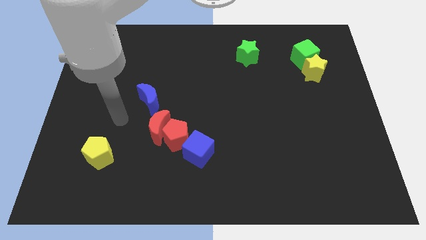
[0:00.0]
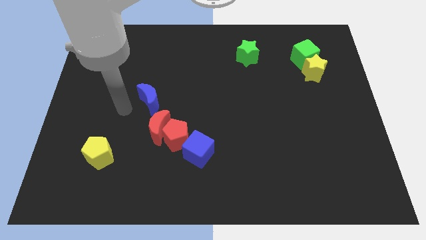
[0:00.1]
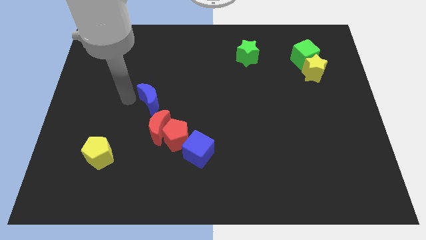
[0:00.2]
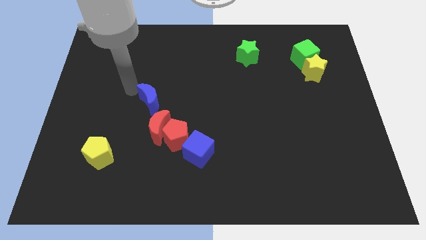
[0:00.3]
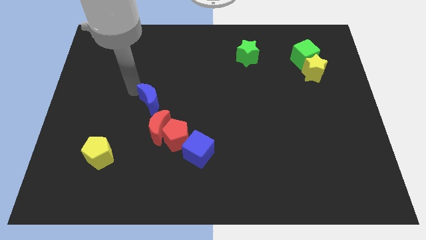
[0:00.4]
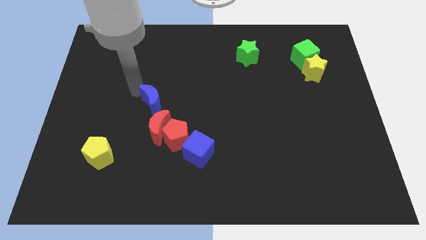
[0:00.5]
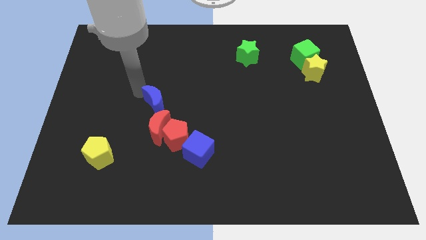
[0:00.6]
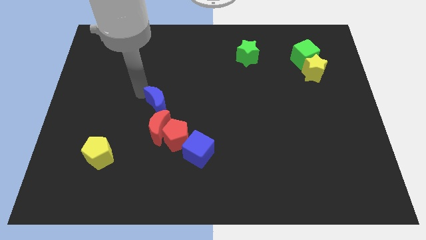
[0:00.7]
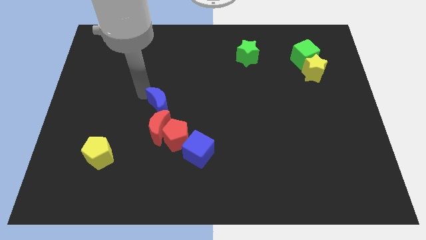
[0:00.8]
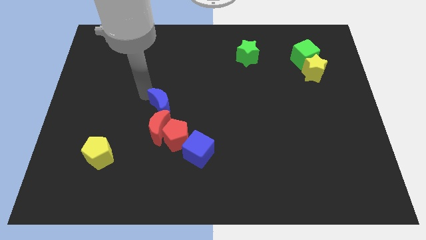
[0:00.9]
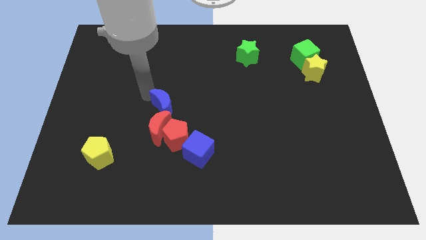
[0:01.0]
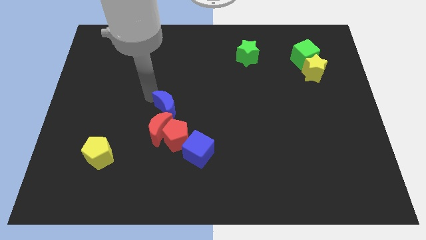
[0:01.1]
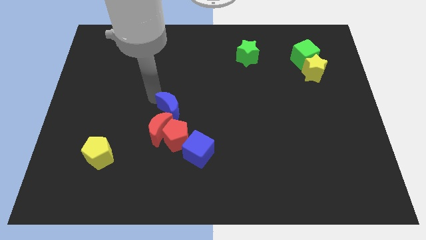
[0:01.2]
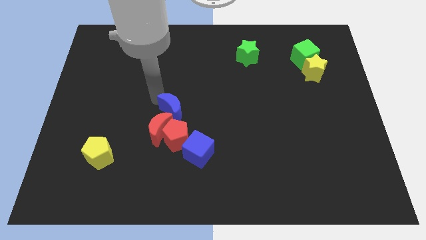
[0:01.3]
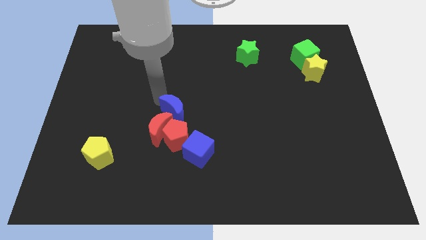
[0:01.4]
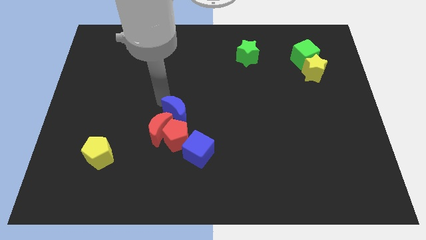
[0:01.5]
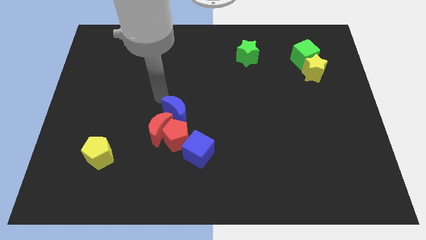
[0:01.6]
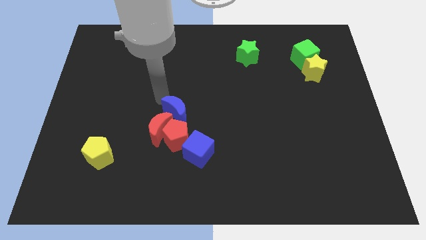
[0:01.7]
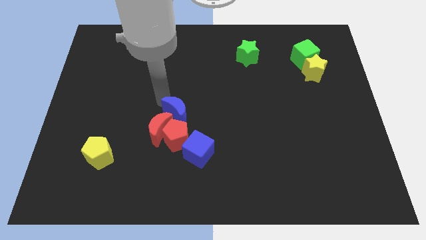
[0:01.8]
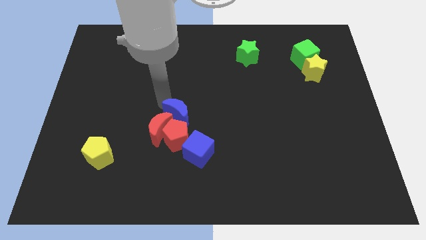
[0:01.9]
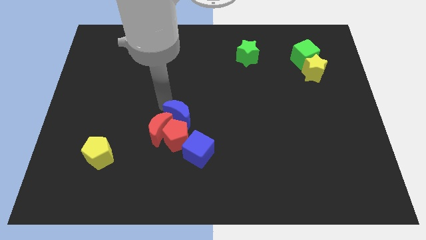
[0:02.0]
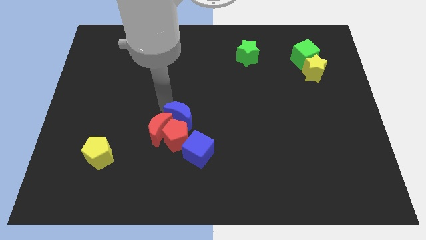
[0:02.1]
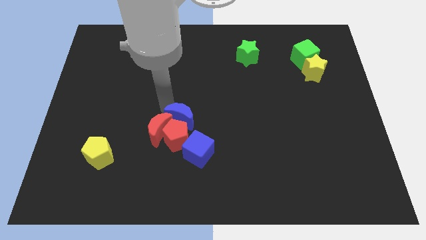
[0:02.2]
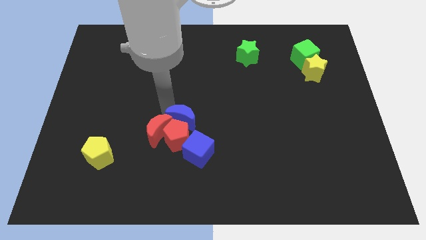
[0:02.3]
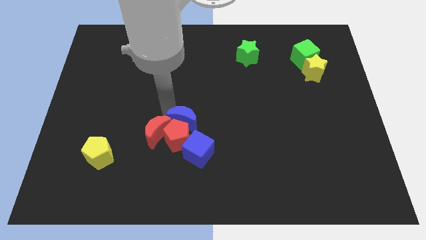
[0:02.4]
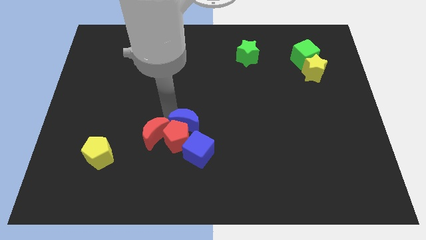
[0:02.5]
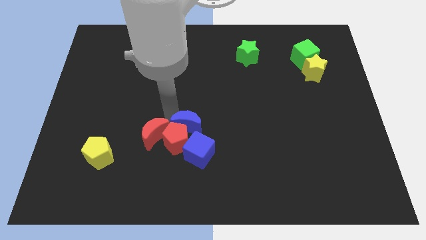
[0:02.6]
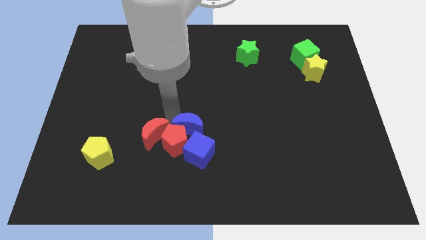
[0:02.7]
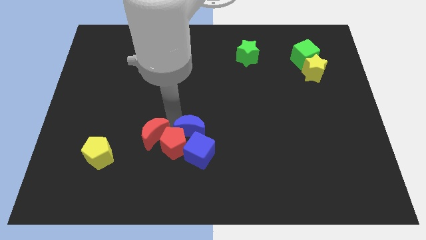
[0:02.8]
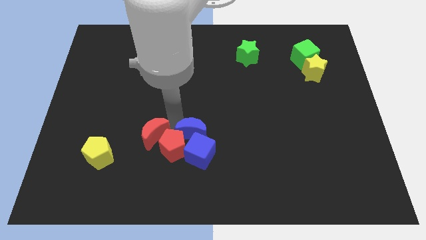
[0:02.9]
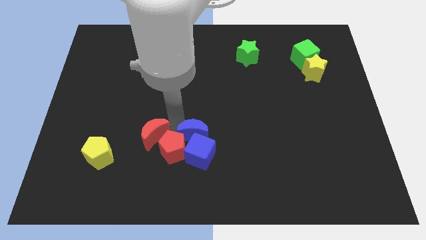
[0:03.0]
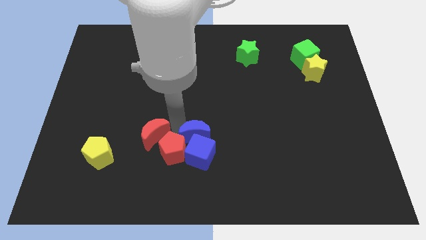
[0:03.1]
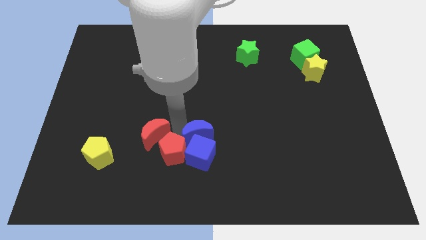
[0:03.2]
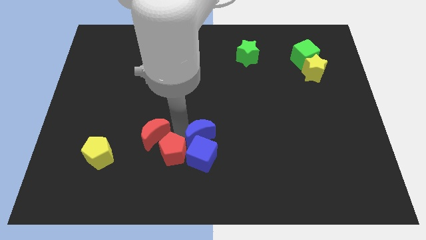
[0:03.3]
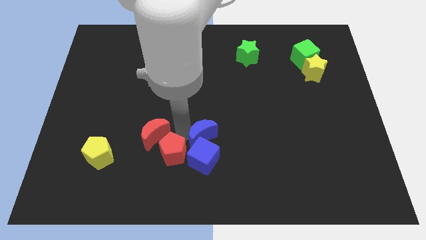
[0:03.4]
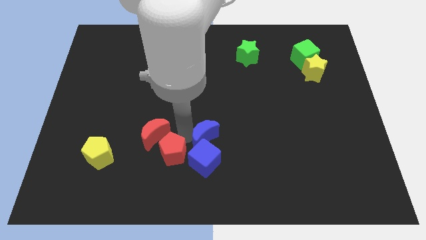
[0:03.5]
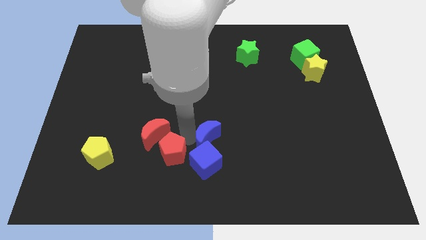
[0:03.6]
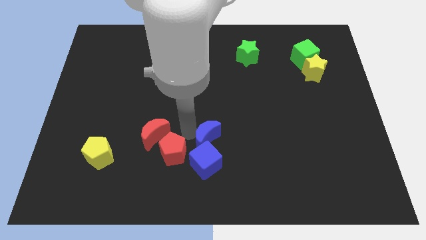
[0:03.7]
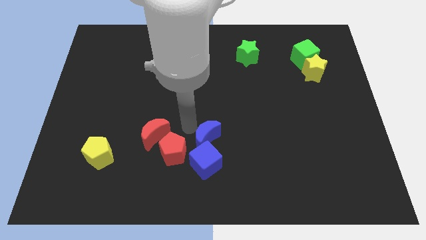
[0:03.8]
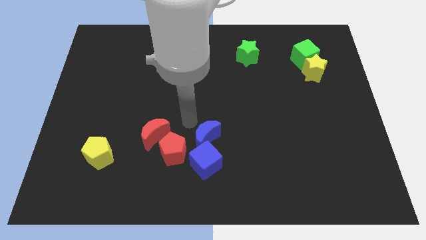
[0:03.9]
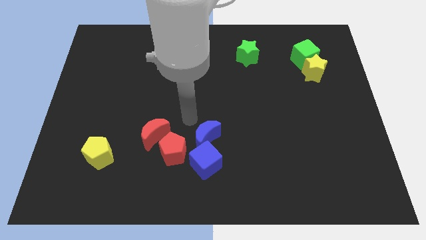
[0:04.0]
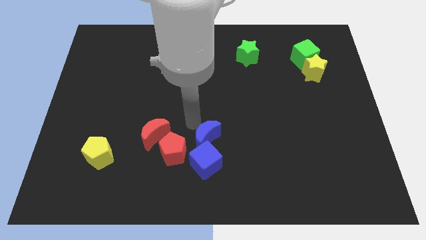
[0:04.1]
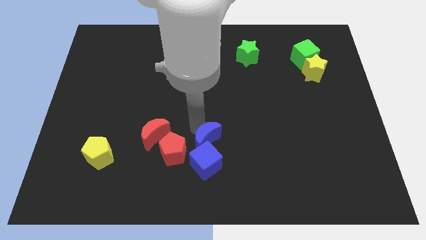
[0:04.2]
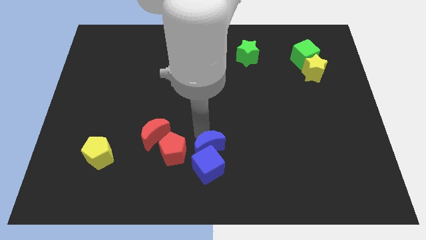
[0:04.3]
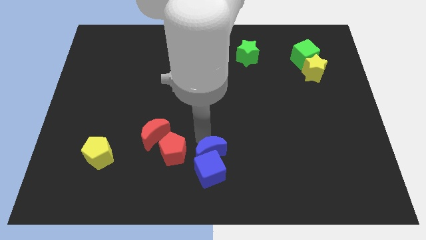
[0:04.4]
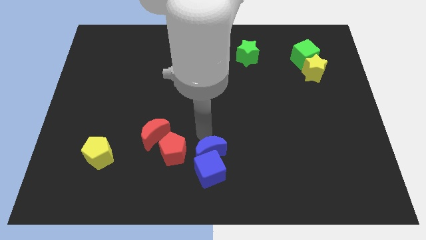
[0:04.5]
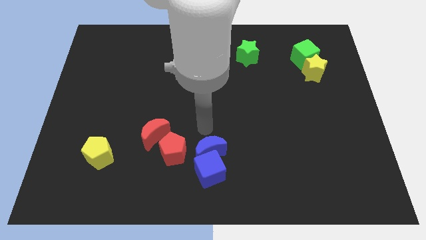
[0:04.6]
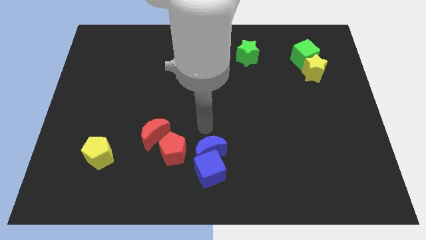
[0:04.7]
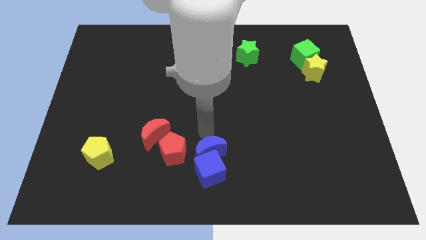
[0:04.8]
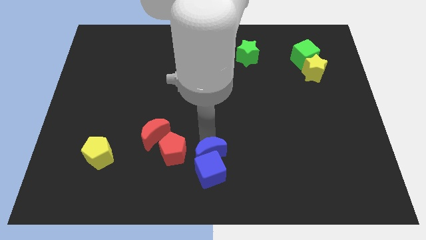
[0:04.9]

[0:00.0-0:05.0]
slide the blue moon to the bottom side

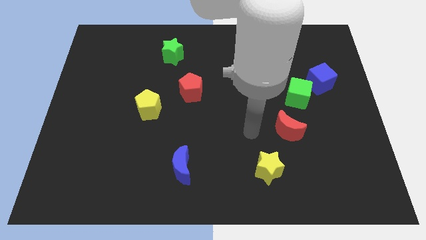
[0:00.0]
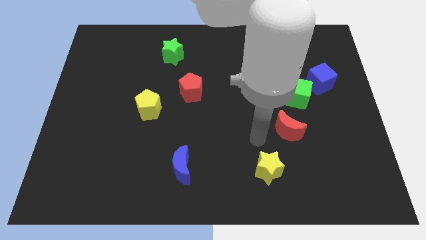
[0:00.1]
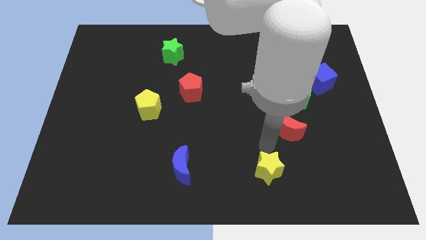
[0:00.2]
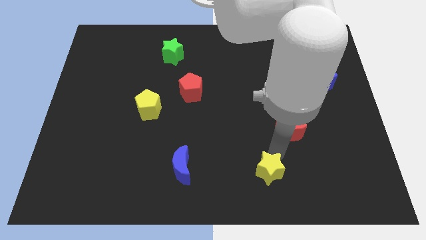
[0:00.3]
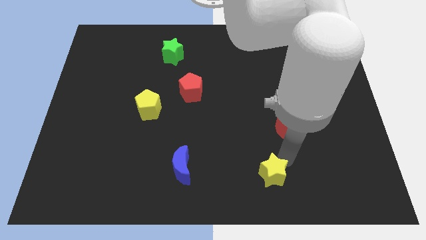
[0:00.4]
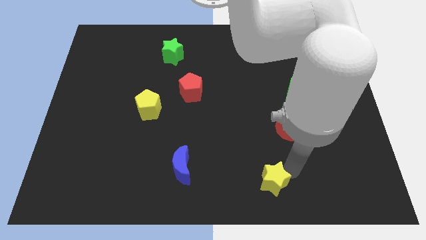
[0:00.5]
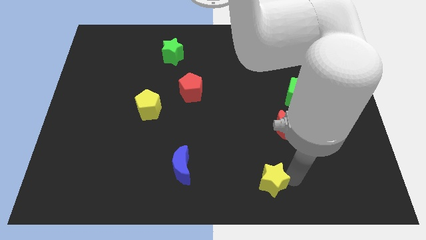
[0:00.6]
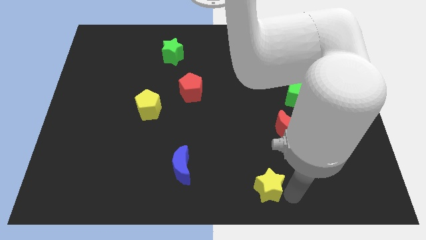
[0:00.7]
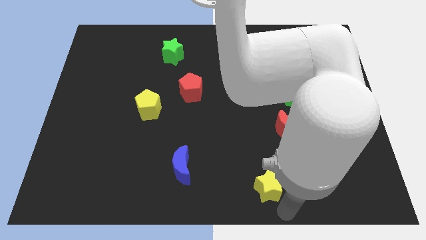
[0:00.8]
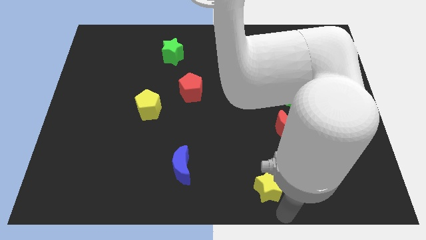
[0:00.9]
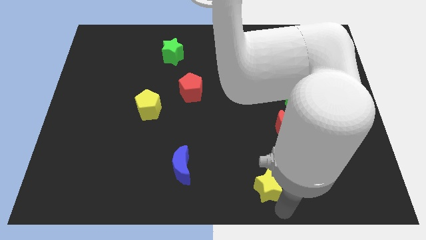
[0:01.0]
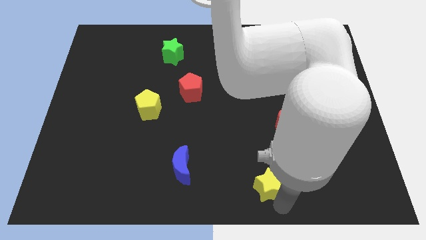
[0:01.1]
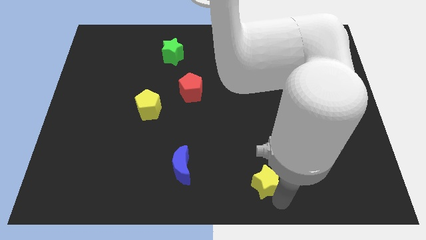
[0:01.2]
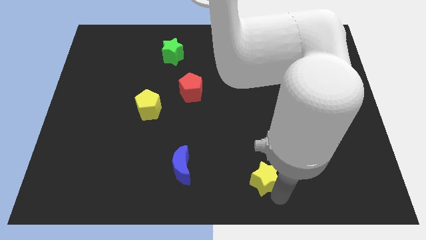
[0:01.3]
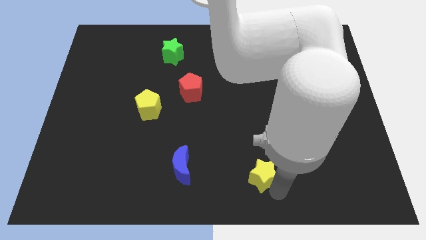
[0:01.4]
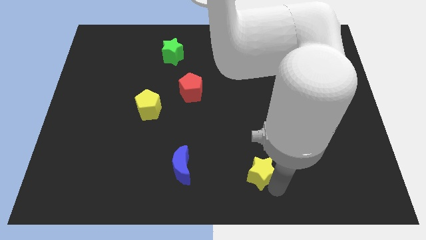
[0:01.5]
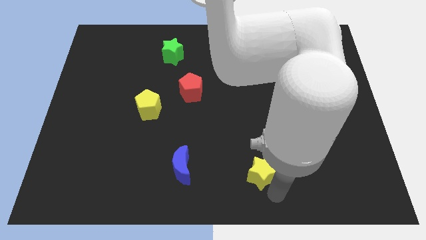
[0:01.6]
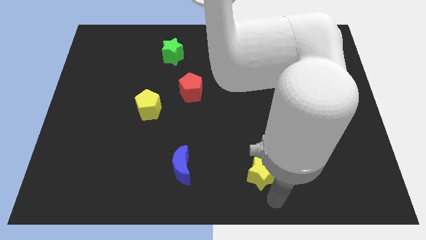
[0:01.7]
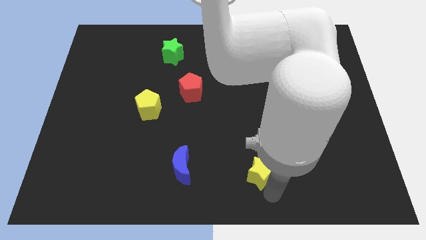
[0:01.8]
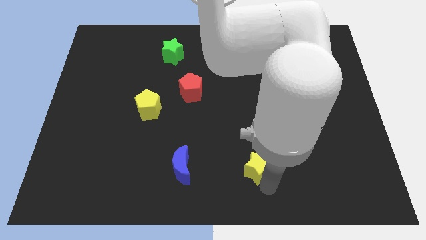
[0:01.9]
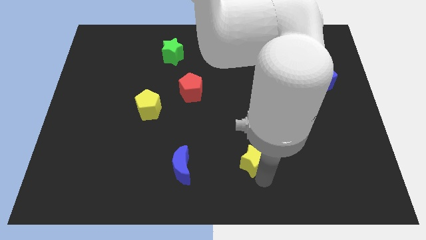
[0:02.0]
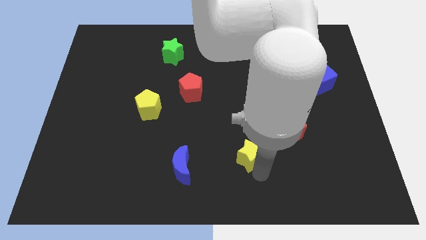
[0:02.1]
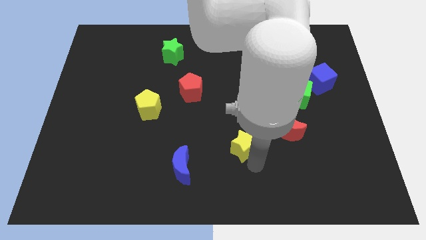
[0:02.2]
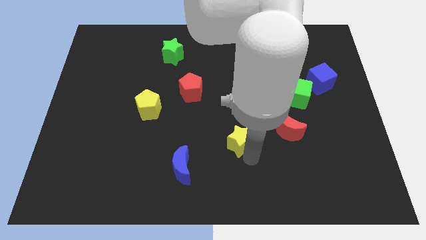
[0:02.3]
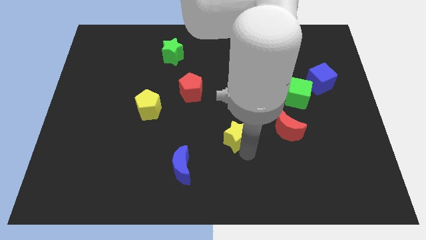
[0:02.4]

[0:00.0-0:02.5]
move the yellow star to the middle

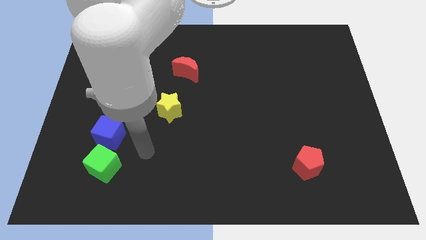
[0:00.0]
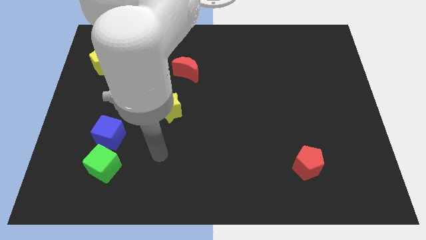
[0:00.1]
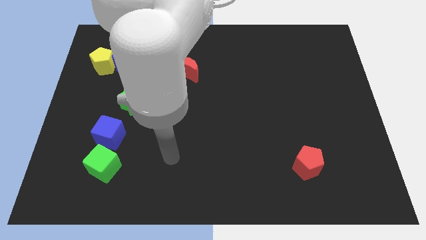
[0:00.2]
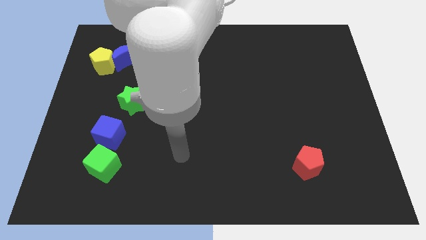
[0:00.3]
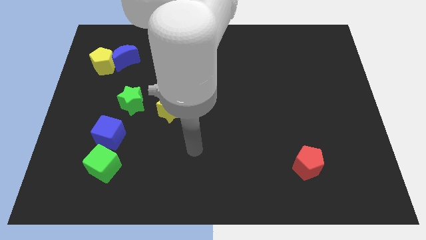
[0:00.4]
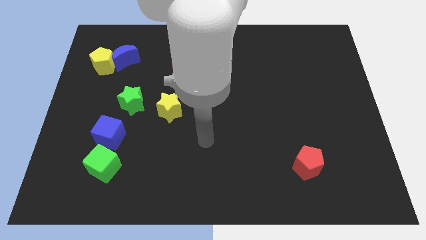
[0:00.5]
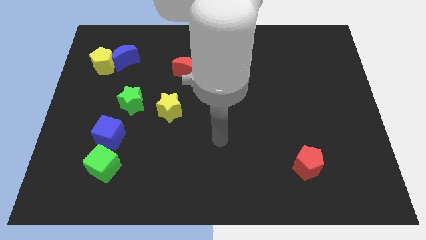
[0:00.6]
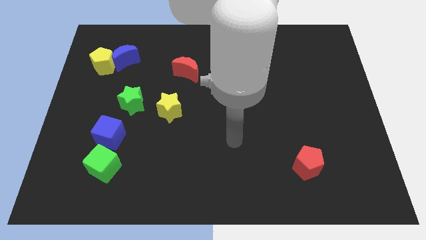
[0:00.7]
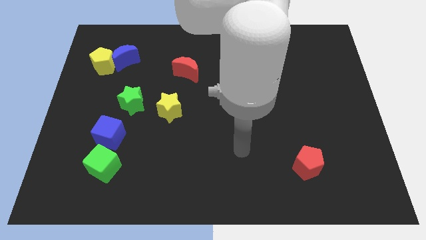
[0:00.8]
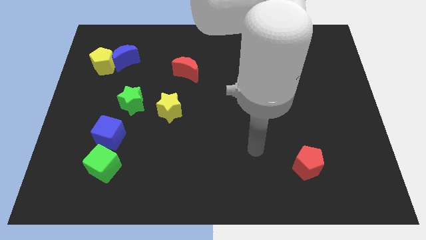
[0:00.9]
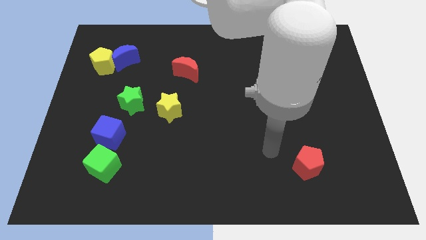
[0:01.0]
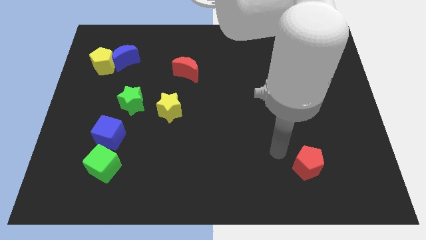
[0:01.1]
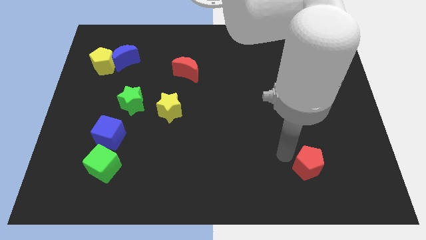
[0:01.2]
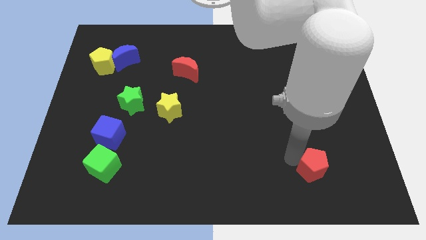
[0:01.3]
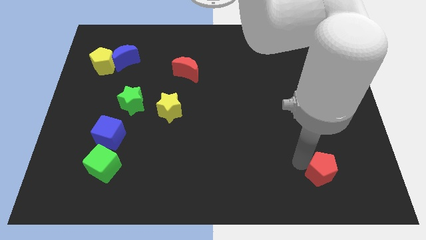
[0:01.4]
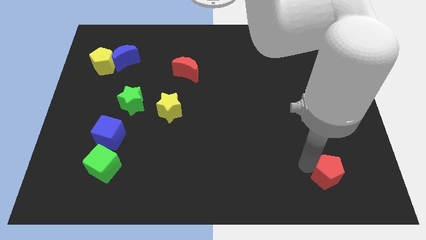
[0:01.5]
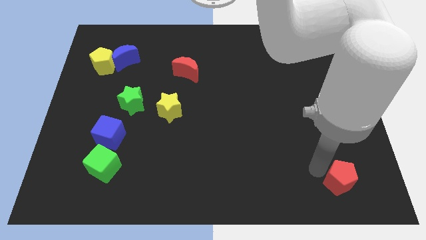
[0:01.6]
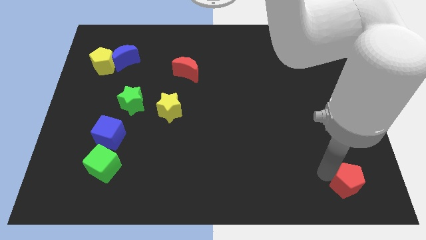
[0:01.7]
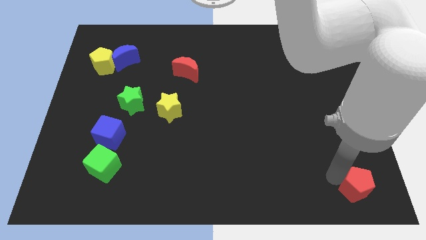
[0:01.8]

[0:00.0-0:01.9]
put the red pentagon to the bottom right
